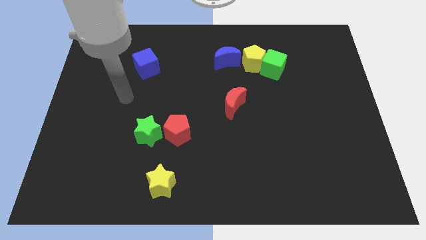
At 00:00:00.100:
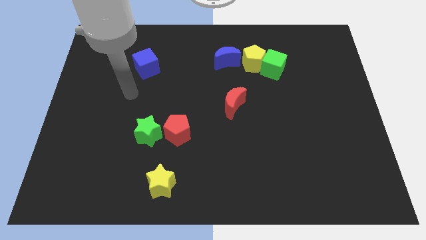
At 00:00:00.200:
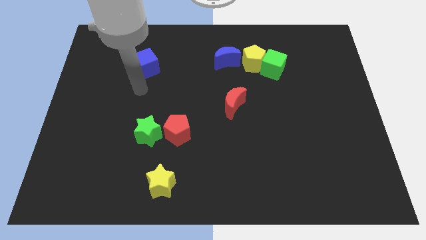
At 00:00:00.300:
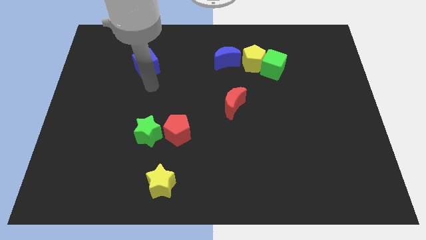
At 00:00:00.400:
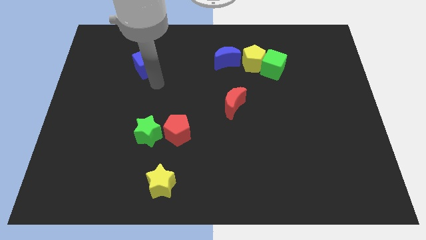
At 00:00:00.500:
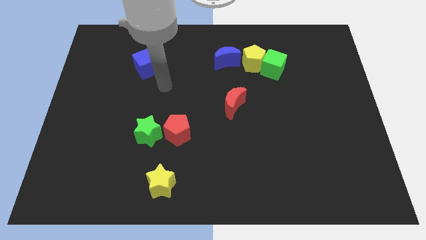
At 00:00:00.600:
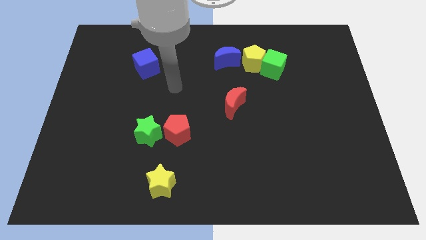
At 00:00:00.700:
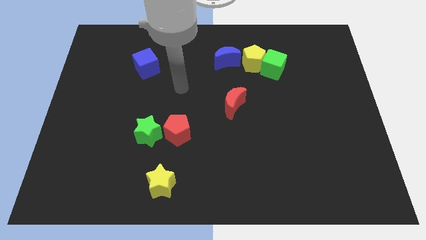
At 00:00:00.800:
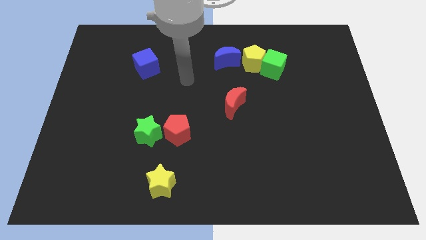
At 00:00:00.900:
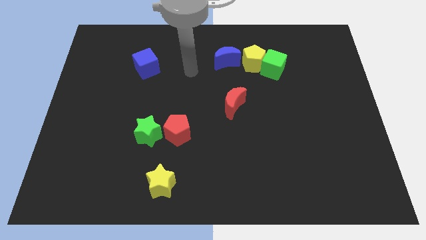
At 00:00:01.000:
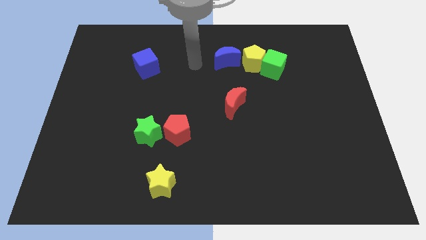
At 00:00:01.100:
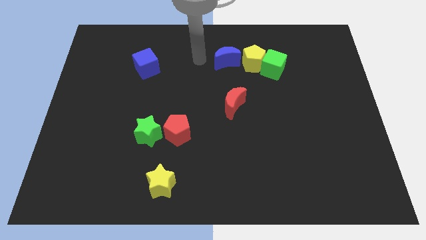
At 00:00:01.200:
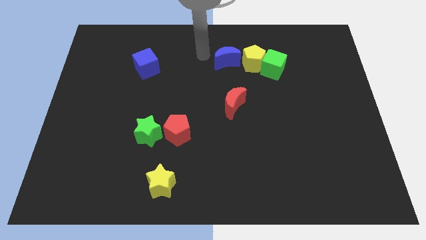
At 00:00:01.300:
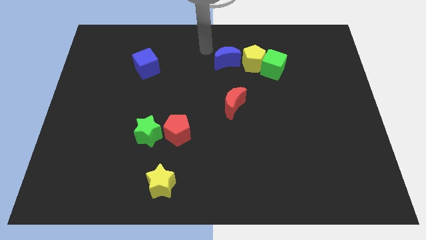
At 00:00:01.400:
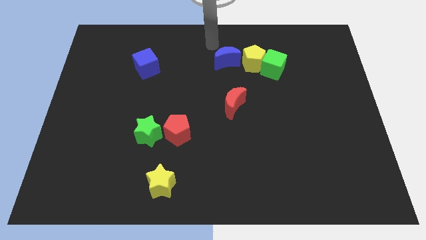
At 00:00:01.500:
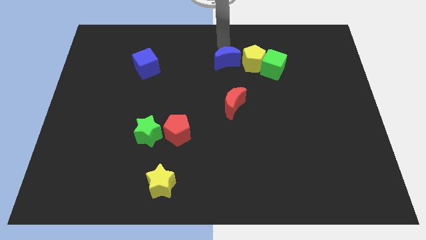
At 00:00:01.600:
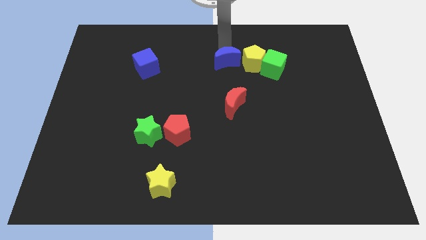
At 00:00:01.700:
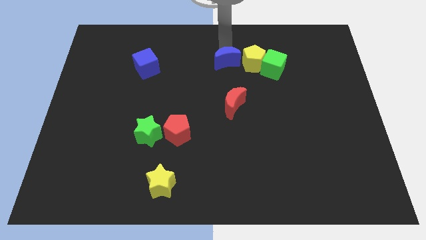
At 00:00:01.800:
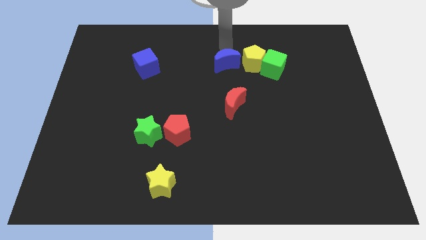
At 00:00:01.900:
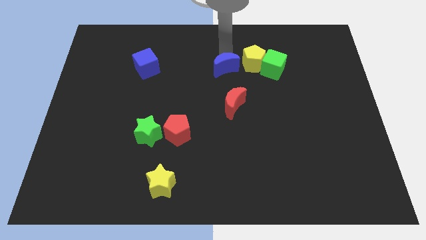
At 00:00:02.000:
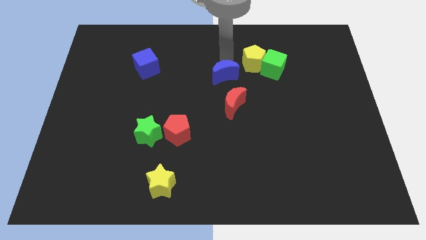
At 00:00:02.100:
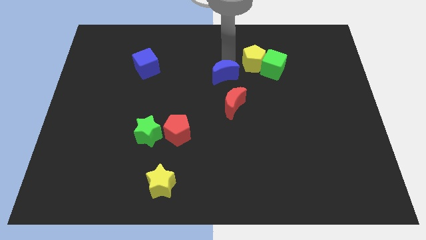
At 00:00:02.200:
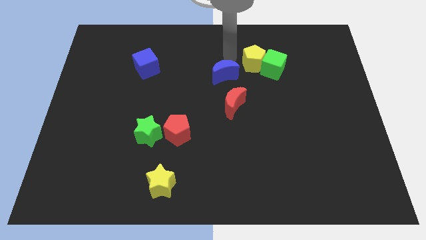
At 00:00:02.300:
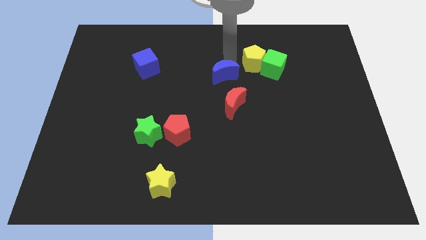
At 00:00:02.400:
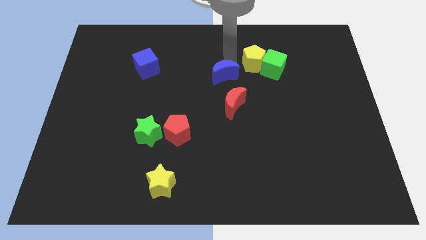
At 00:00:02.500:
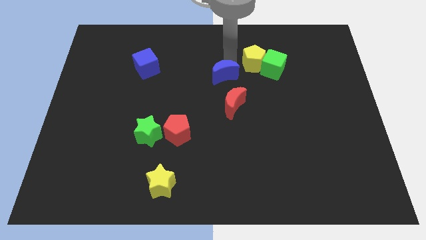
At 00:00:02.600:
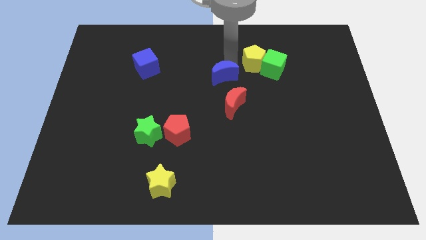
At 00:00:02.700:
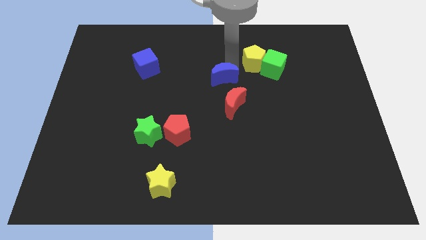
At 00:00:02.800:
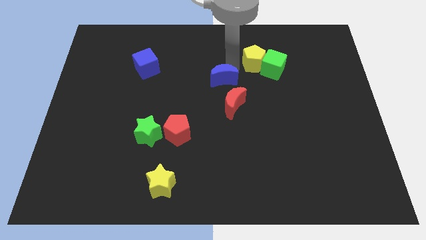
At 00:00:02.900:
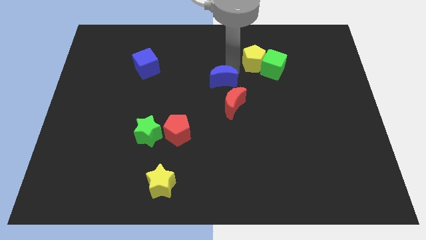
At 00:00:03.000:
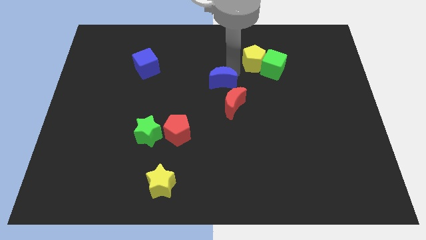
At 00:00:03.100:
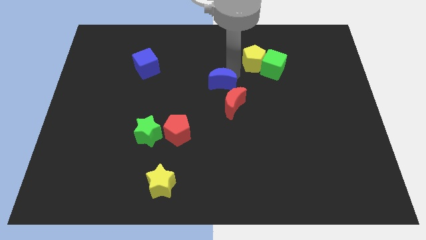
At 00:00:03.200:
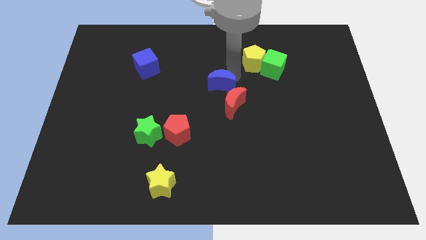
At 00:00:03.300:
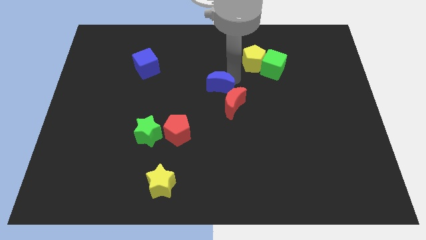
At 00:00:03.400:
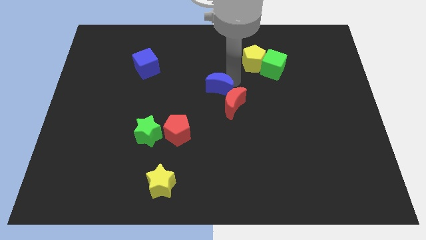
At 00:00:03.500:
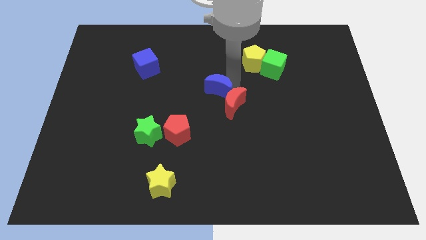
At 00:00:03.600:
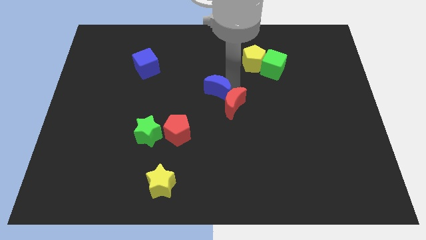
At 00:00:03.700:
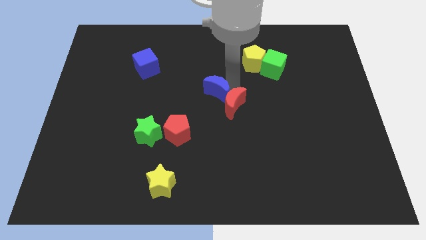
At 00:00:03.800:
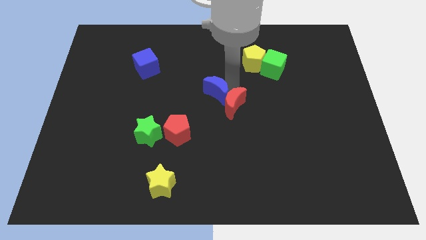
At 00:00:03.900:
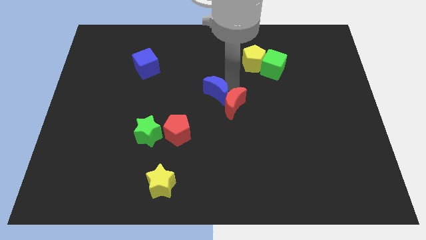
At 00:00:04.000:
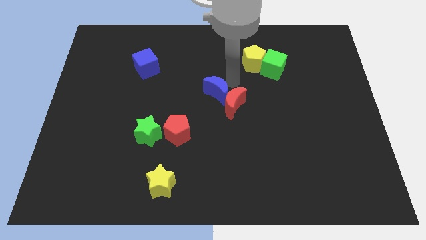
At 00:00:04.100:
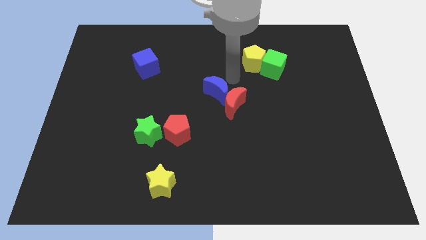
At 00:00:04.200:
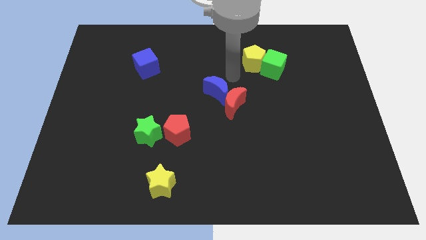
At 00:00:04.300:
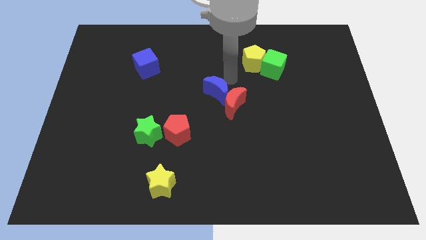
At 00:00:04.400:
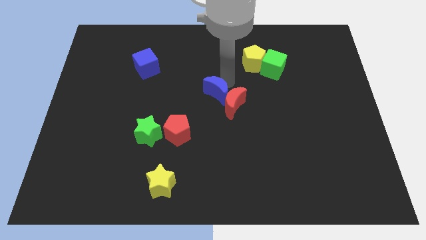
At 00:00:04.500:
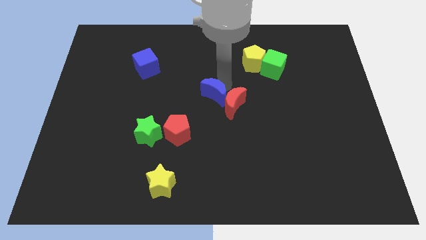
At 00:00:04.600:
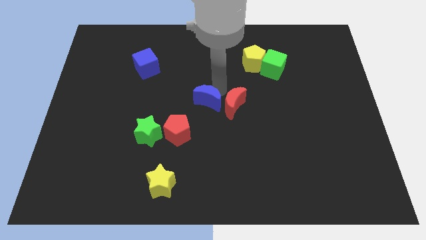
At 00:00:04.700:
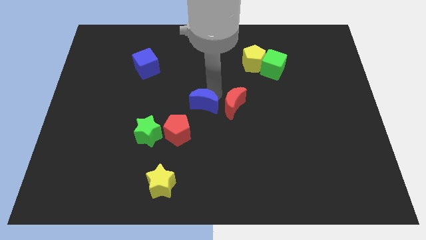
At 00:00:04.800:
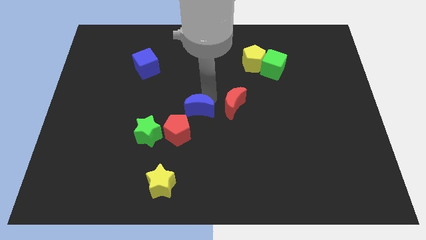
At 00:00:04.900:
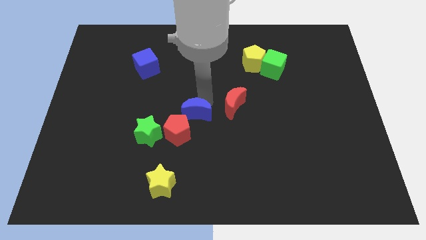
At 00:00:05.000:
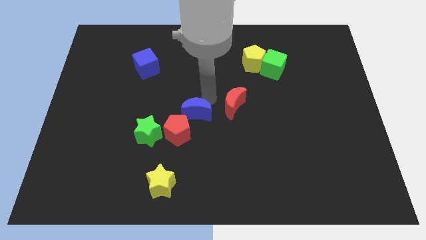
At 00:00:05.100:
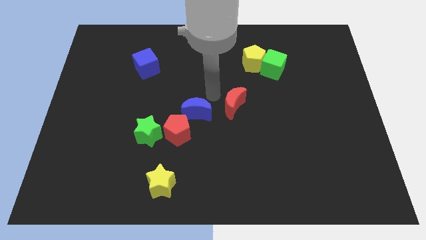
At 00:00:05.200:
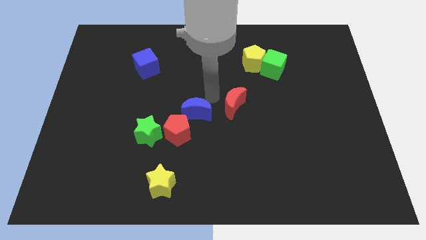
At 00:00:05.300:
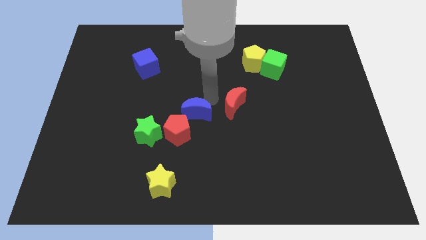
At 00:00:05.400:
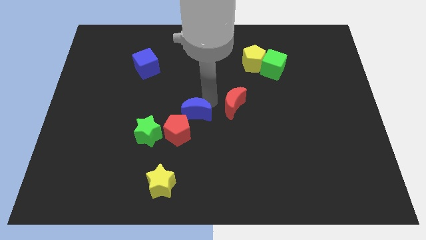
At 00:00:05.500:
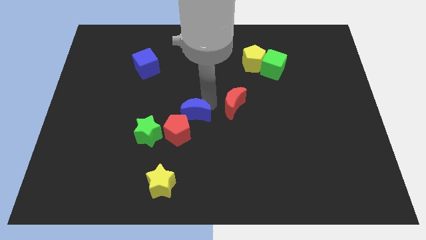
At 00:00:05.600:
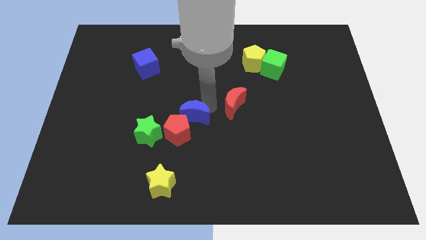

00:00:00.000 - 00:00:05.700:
push the blue moon towards the red pentagon
